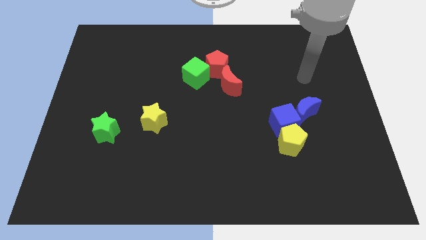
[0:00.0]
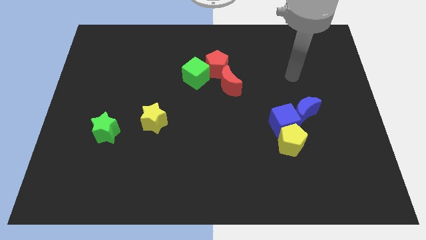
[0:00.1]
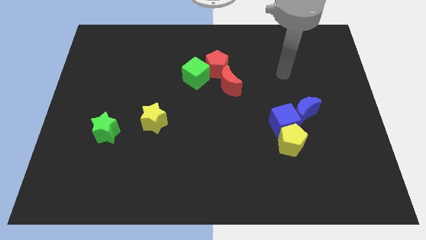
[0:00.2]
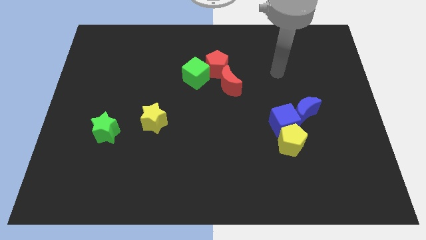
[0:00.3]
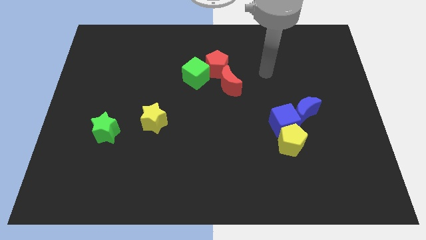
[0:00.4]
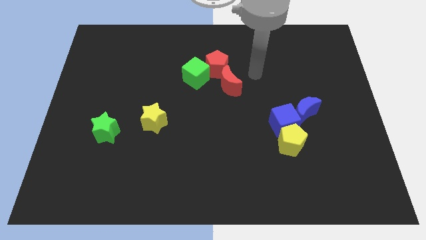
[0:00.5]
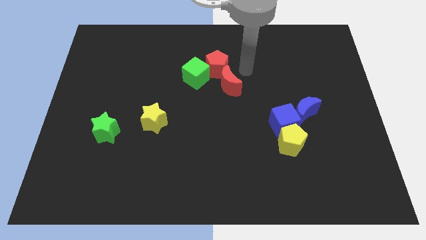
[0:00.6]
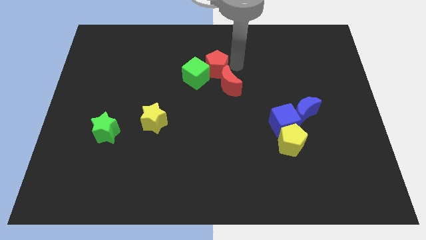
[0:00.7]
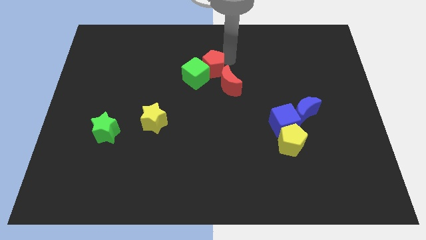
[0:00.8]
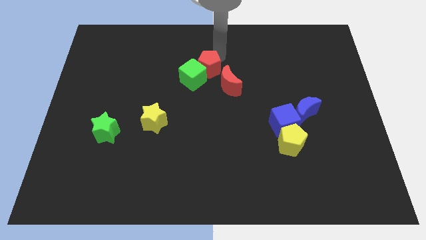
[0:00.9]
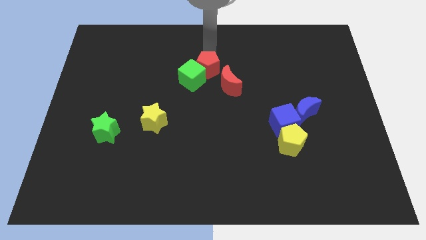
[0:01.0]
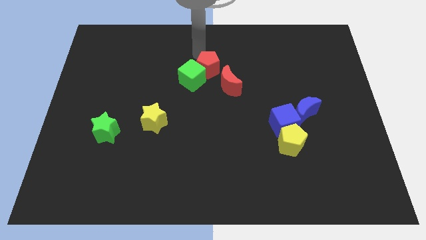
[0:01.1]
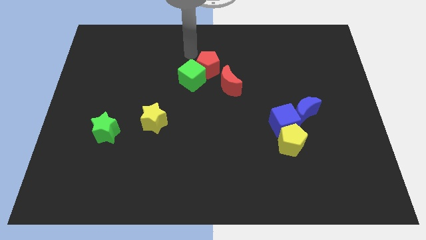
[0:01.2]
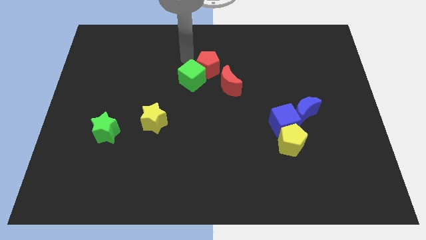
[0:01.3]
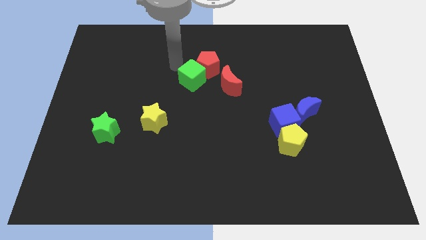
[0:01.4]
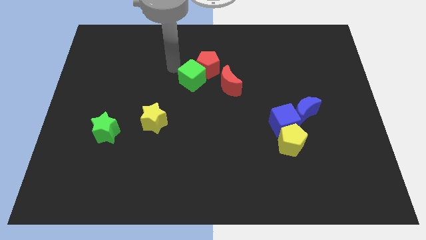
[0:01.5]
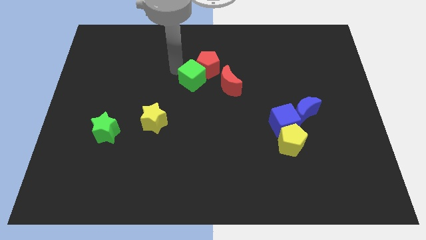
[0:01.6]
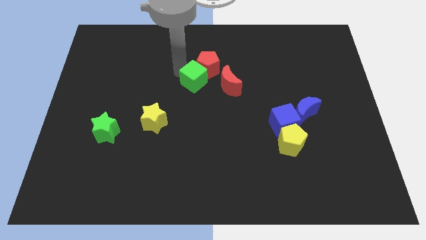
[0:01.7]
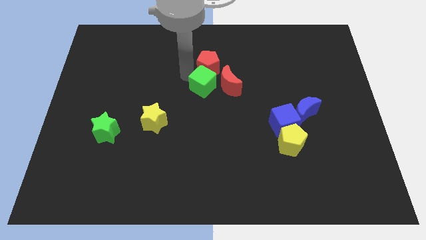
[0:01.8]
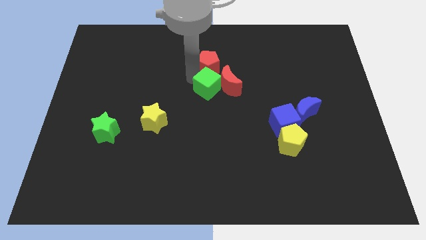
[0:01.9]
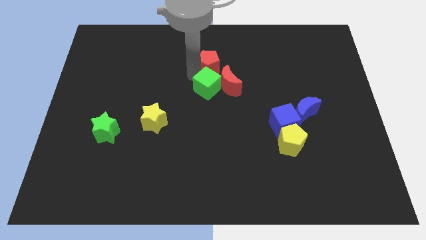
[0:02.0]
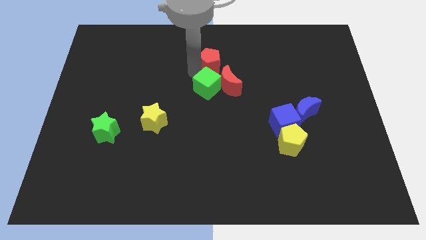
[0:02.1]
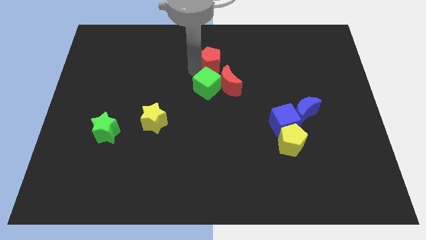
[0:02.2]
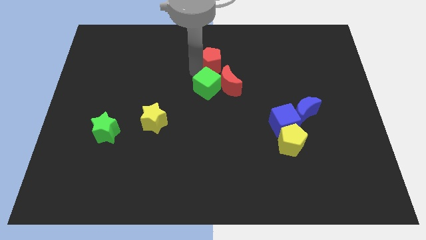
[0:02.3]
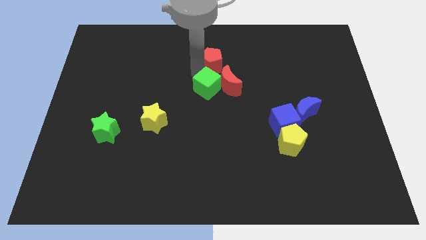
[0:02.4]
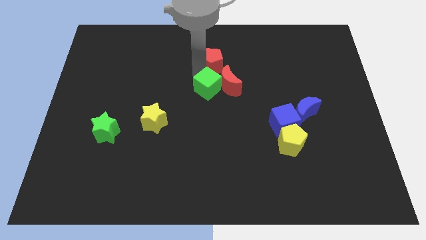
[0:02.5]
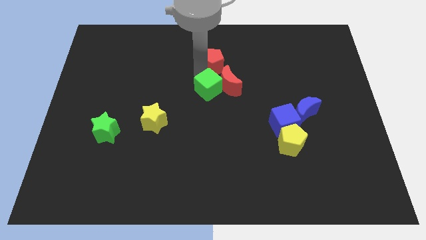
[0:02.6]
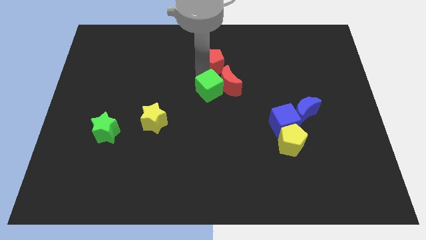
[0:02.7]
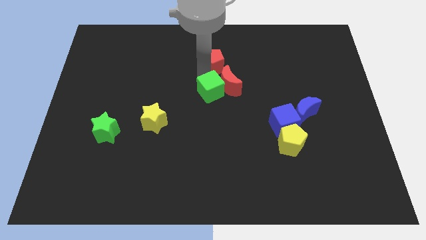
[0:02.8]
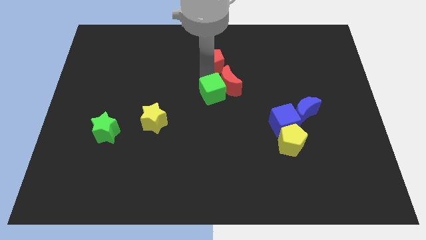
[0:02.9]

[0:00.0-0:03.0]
slightly move the green cube diagonally down and to the right

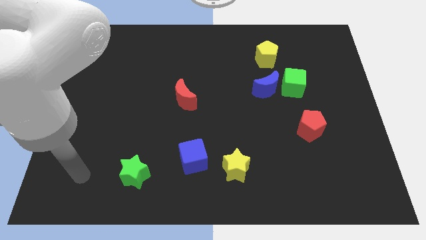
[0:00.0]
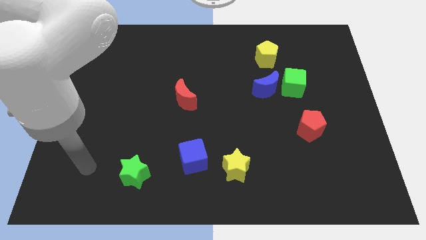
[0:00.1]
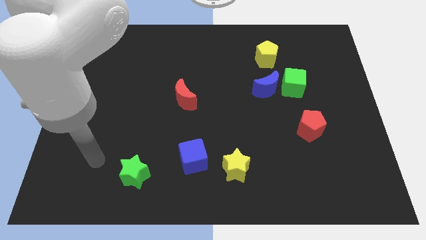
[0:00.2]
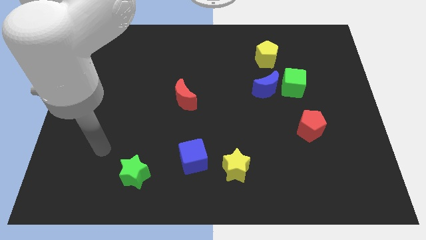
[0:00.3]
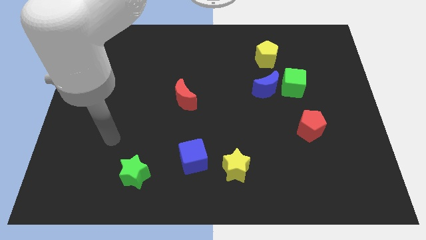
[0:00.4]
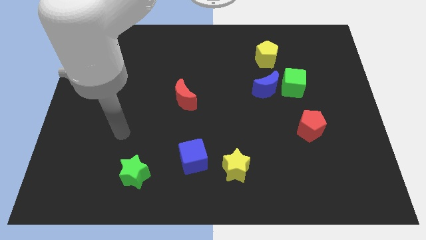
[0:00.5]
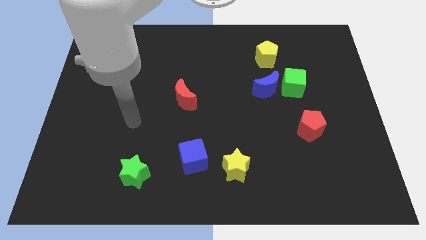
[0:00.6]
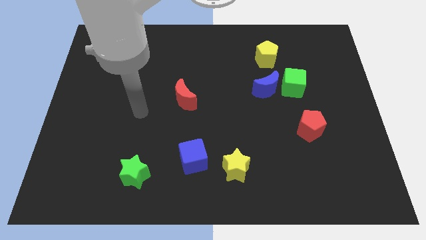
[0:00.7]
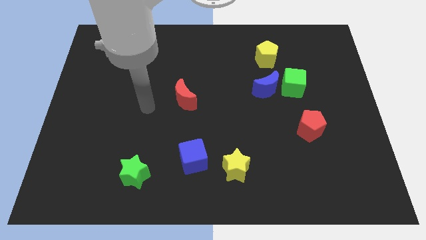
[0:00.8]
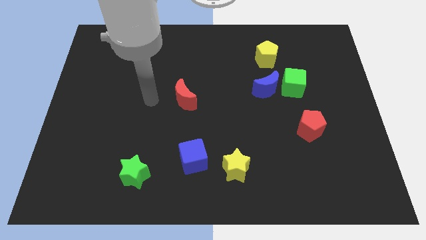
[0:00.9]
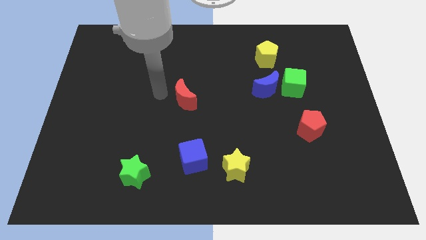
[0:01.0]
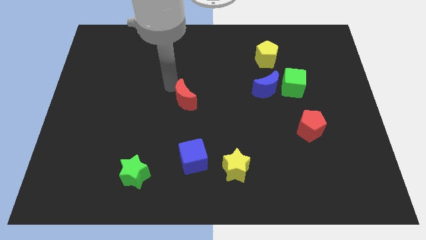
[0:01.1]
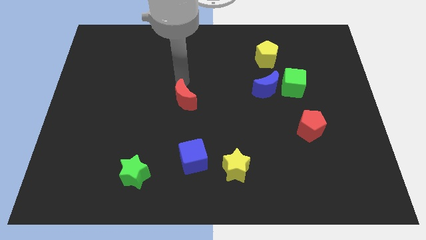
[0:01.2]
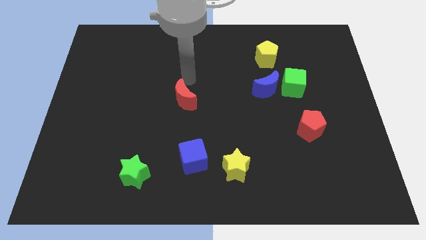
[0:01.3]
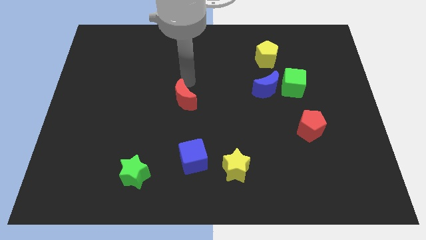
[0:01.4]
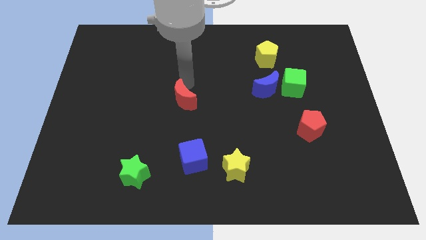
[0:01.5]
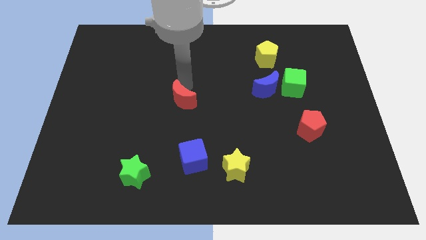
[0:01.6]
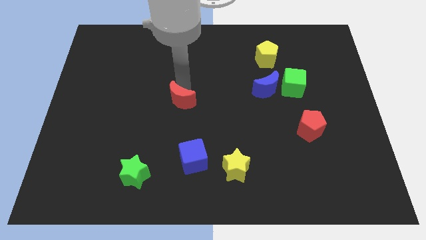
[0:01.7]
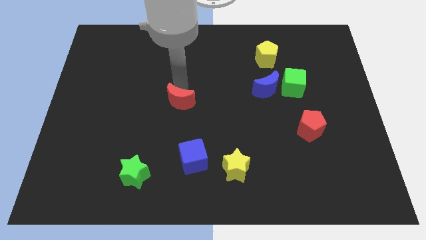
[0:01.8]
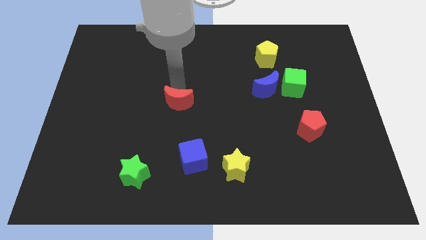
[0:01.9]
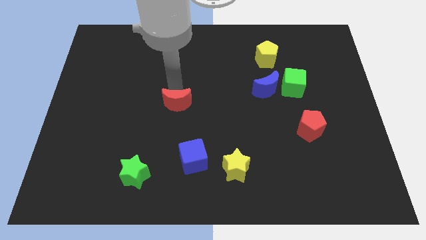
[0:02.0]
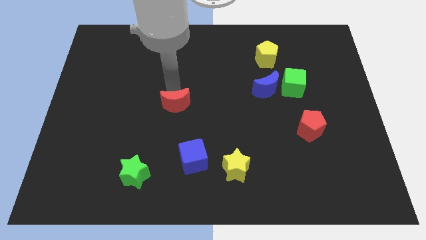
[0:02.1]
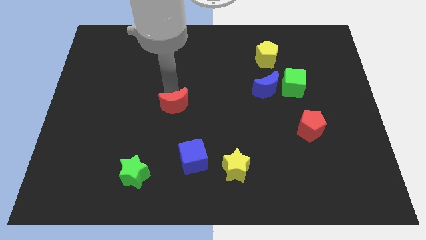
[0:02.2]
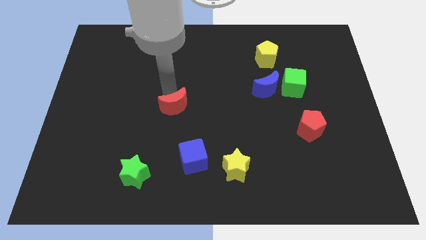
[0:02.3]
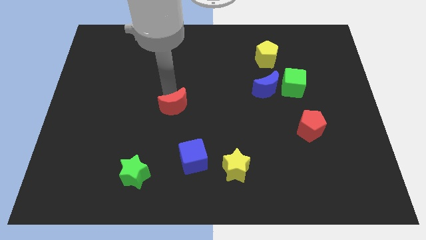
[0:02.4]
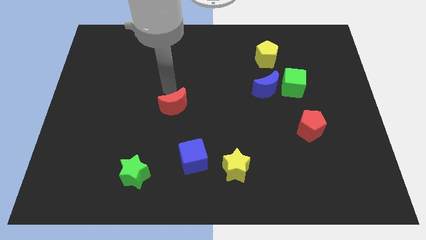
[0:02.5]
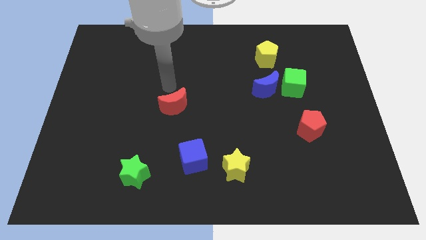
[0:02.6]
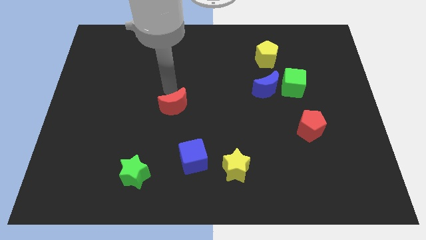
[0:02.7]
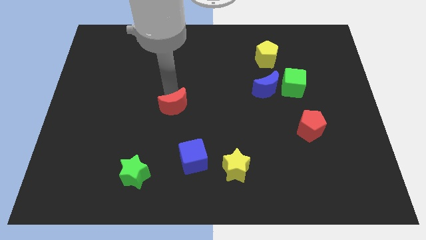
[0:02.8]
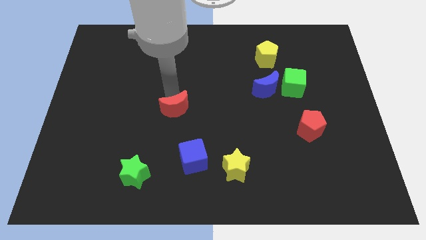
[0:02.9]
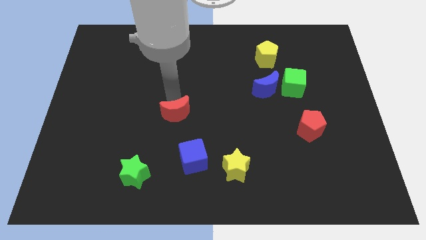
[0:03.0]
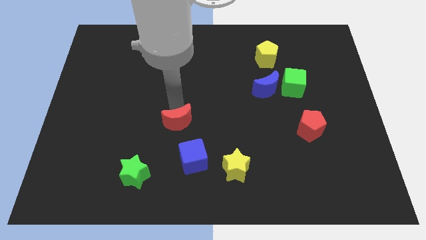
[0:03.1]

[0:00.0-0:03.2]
move the red moon a bit down

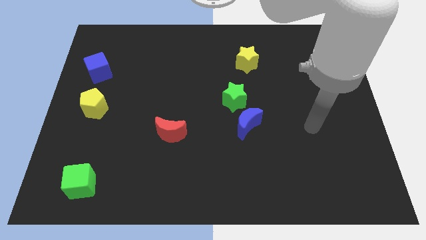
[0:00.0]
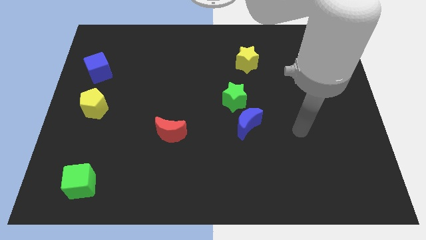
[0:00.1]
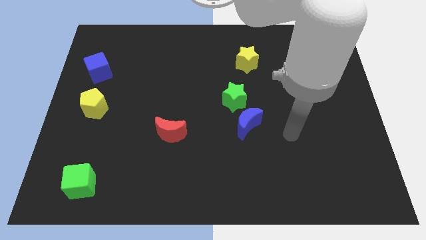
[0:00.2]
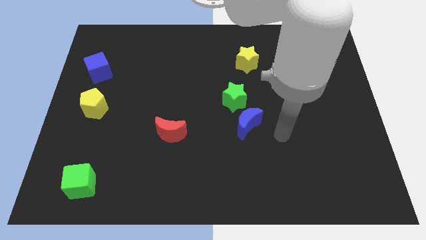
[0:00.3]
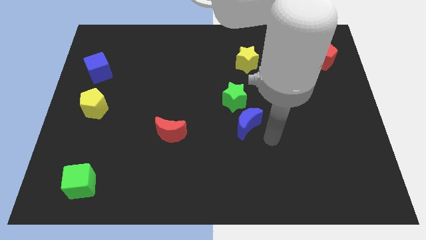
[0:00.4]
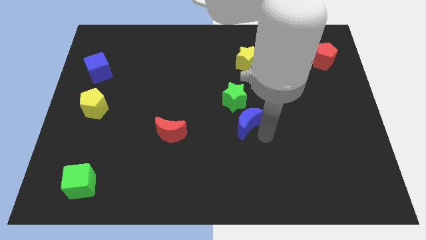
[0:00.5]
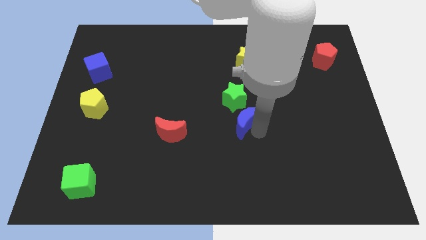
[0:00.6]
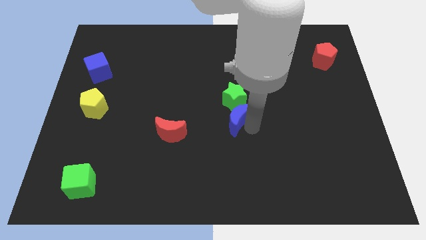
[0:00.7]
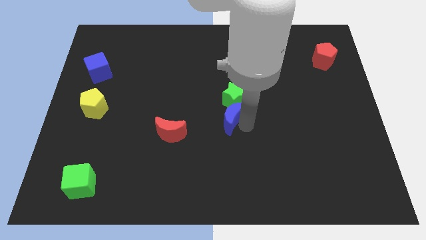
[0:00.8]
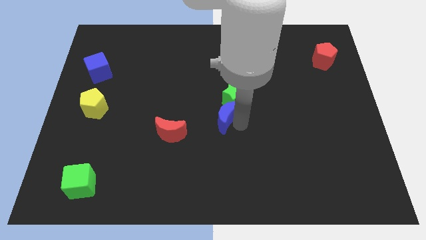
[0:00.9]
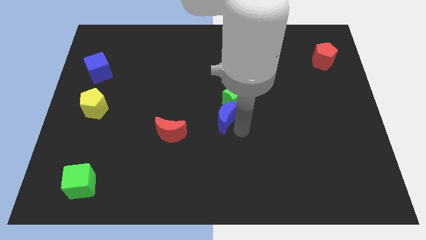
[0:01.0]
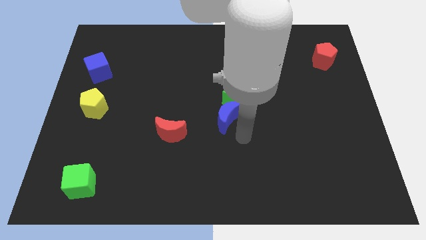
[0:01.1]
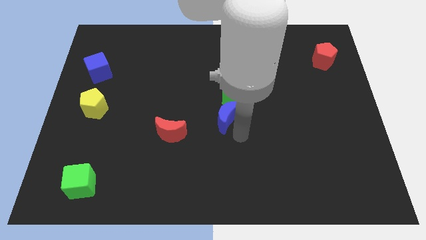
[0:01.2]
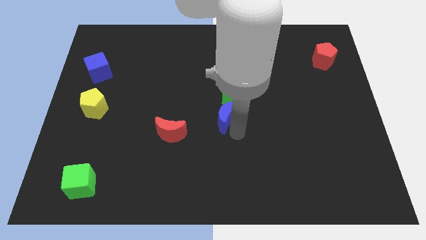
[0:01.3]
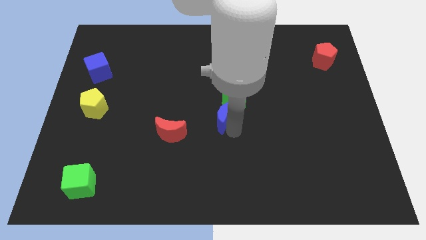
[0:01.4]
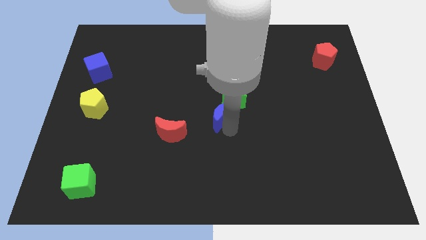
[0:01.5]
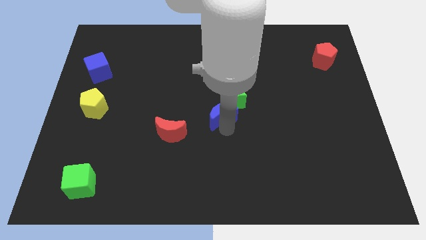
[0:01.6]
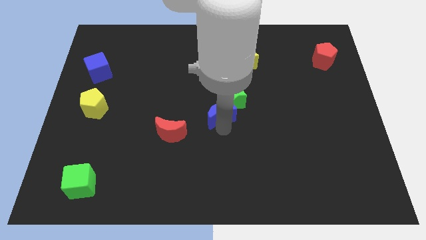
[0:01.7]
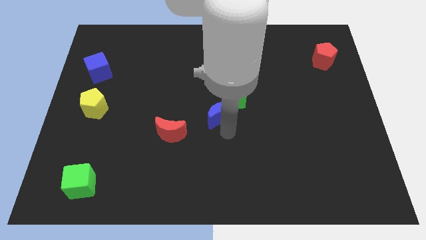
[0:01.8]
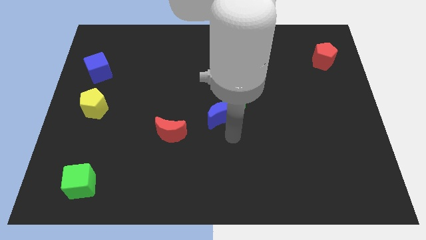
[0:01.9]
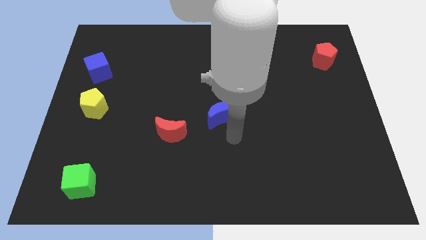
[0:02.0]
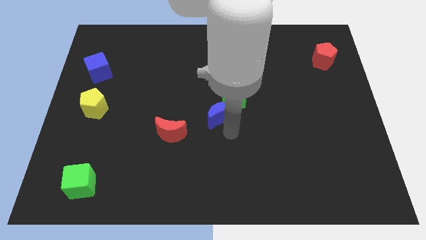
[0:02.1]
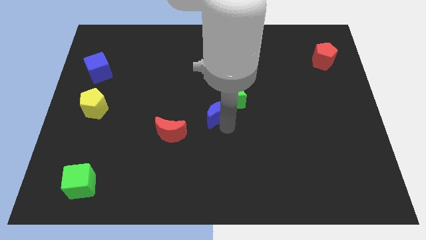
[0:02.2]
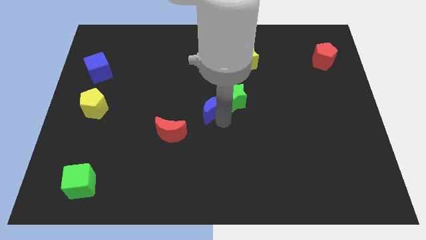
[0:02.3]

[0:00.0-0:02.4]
slightly slide the blue moon up and then to the left
